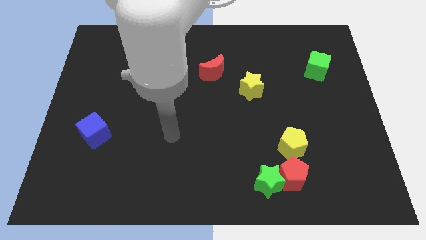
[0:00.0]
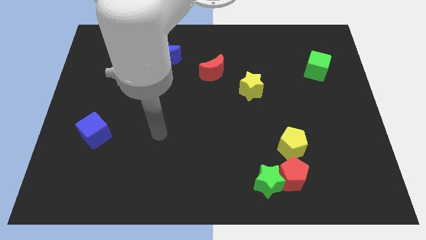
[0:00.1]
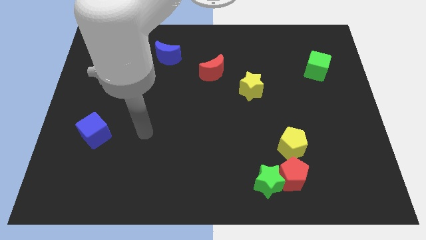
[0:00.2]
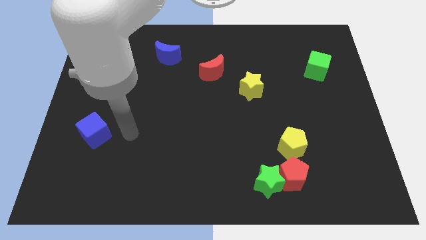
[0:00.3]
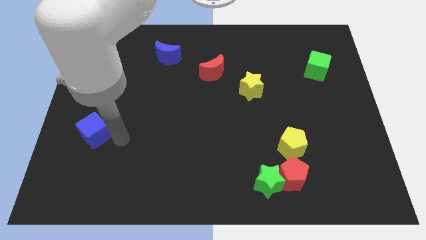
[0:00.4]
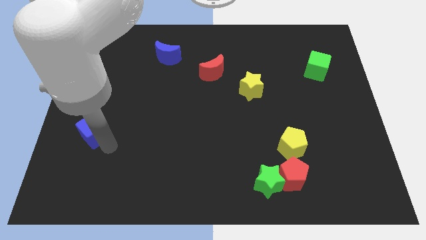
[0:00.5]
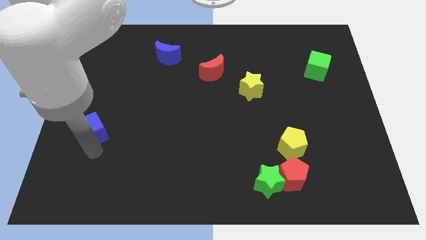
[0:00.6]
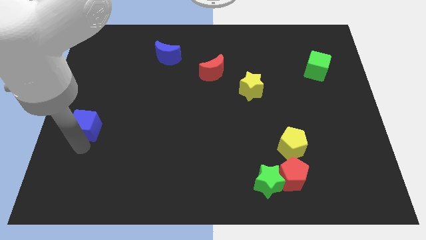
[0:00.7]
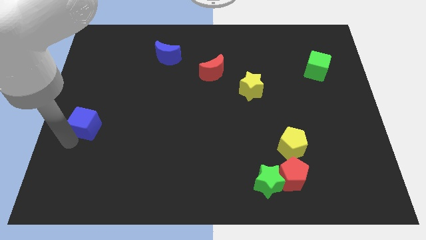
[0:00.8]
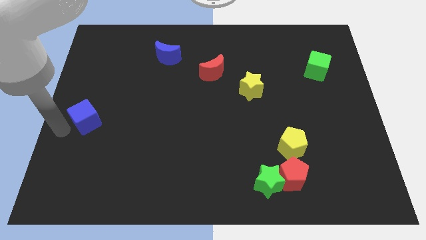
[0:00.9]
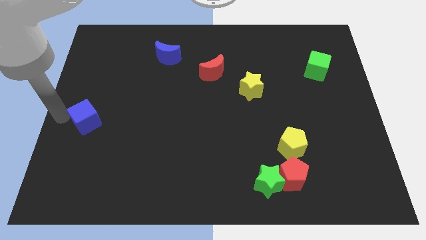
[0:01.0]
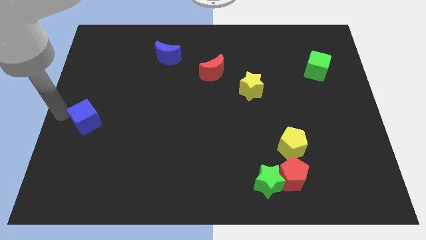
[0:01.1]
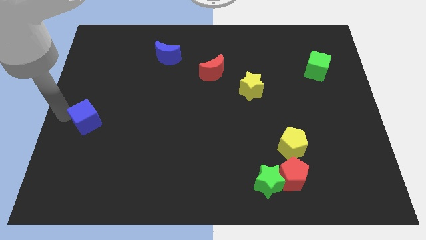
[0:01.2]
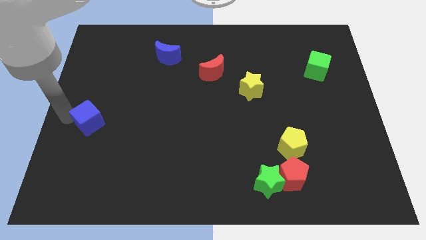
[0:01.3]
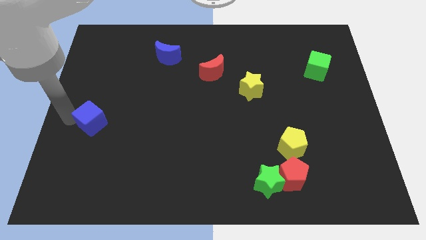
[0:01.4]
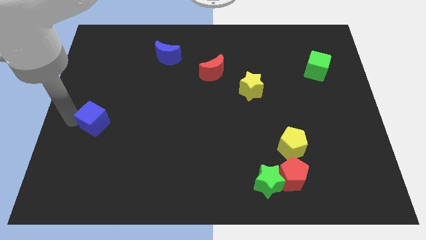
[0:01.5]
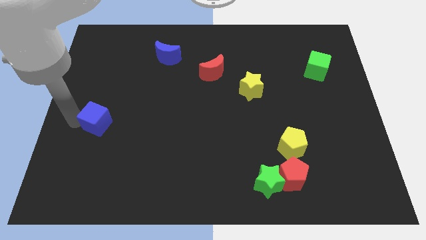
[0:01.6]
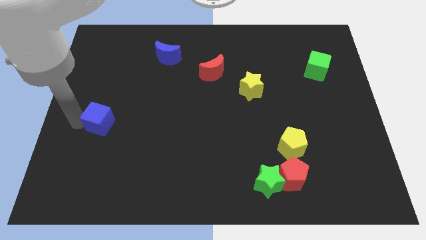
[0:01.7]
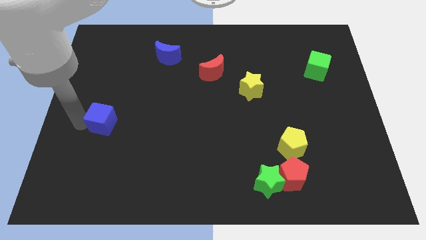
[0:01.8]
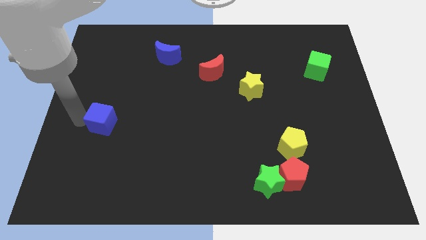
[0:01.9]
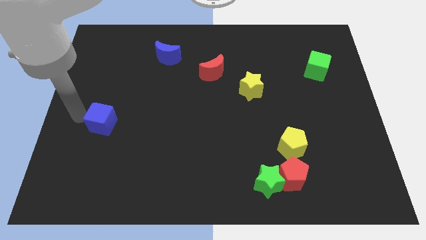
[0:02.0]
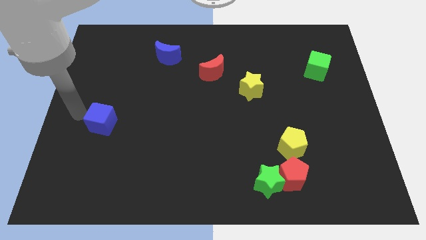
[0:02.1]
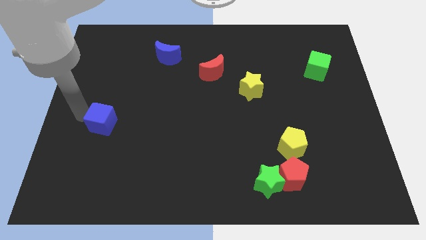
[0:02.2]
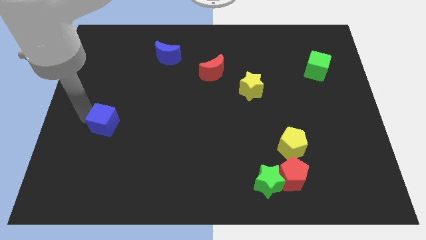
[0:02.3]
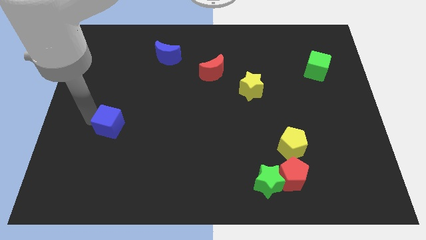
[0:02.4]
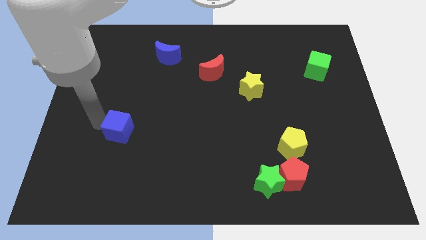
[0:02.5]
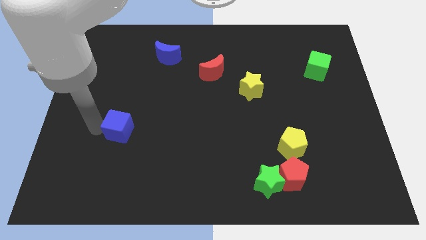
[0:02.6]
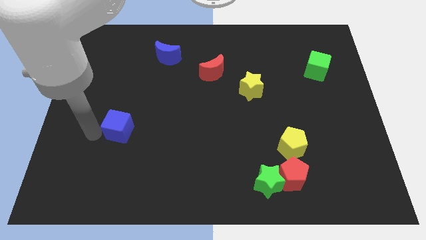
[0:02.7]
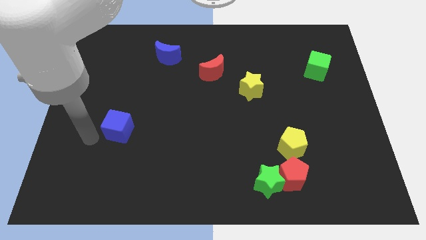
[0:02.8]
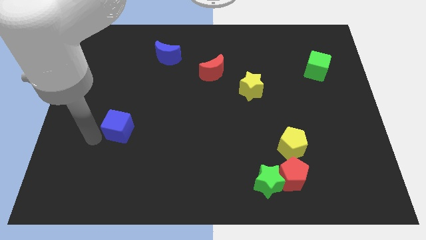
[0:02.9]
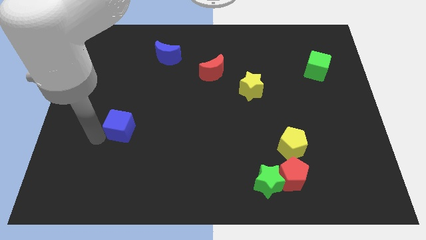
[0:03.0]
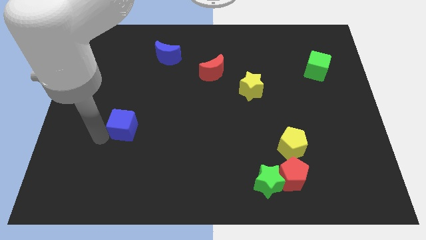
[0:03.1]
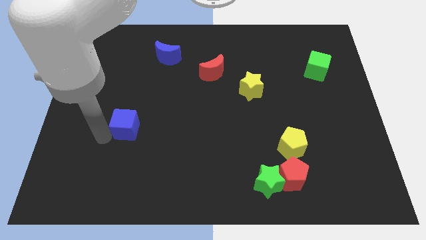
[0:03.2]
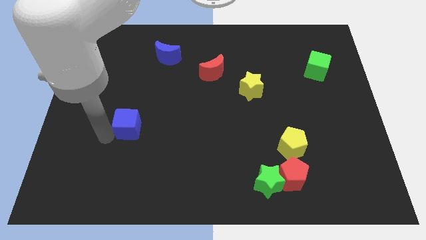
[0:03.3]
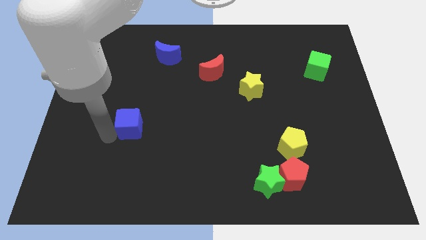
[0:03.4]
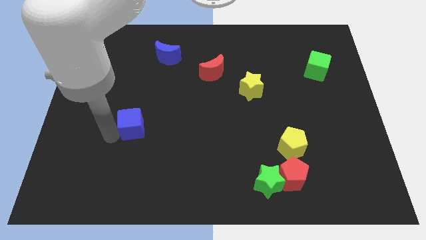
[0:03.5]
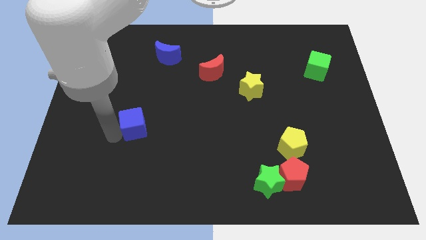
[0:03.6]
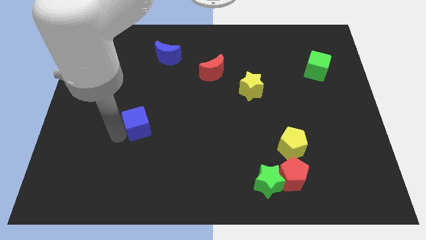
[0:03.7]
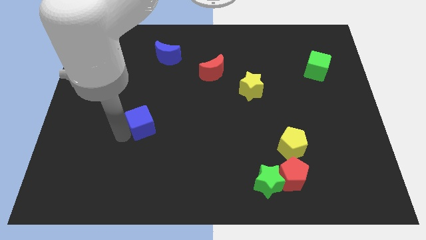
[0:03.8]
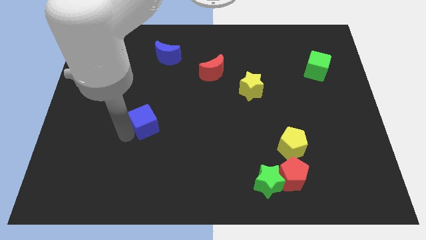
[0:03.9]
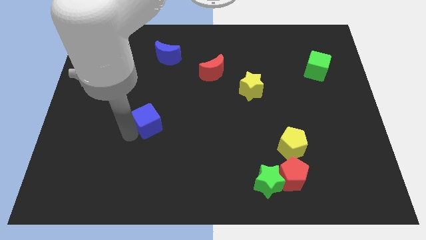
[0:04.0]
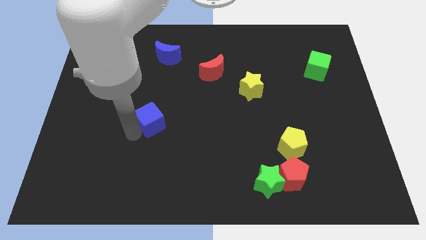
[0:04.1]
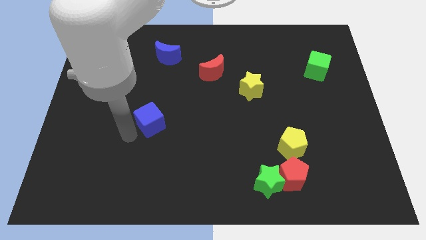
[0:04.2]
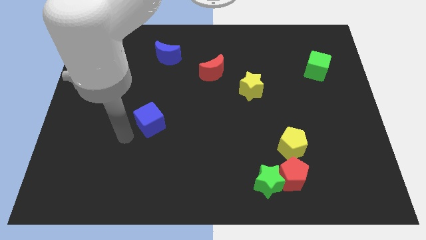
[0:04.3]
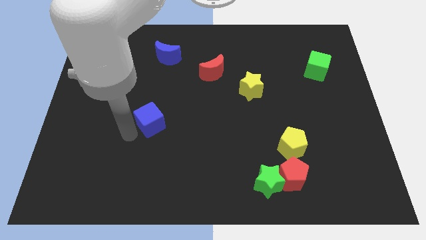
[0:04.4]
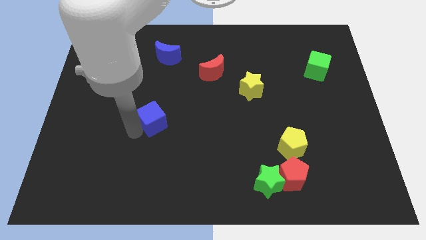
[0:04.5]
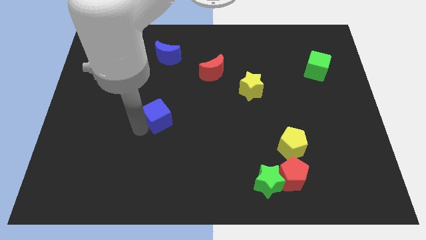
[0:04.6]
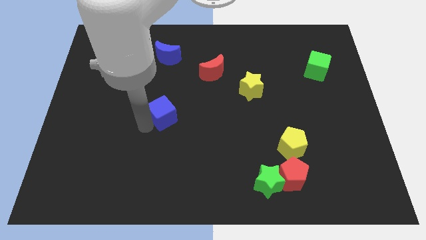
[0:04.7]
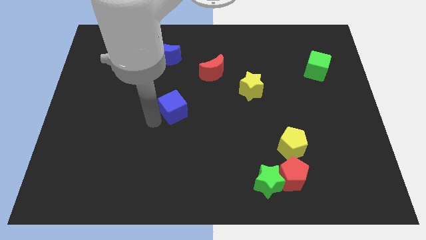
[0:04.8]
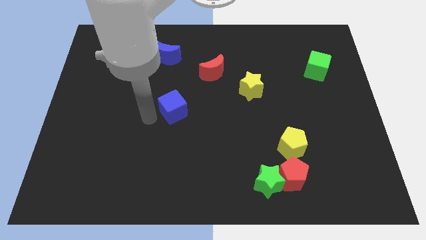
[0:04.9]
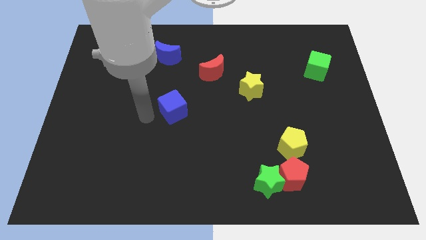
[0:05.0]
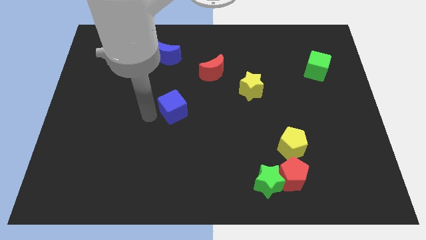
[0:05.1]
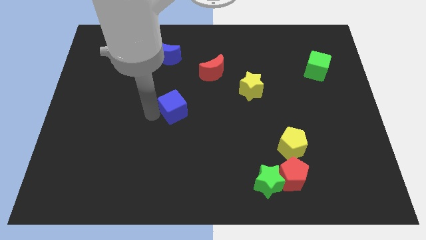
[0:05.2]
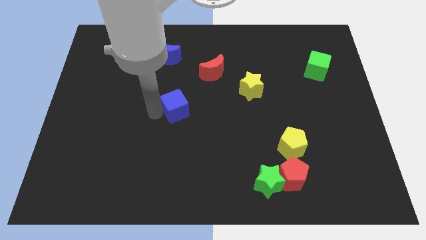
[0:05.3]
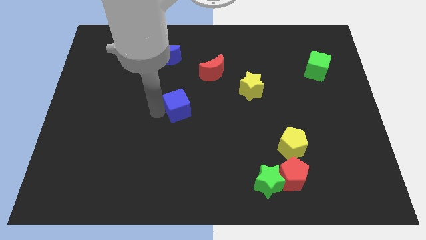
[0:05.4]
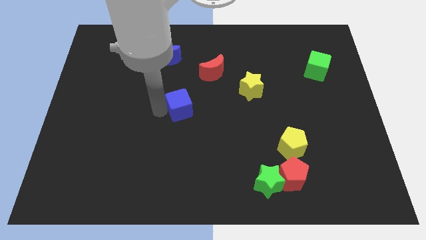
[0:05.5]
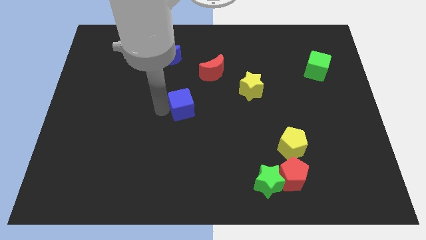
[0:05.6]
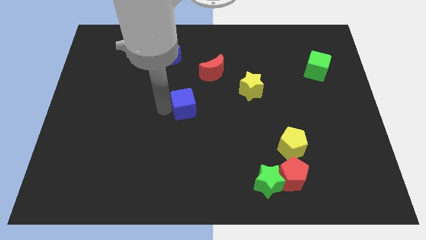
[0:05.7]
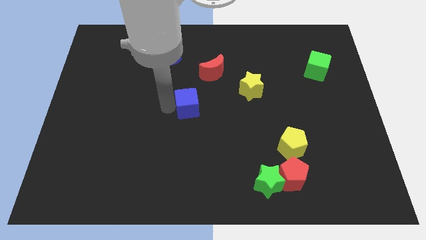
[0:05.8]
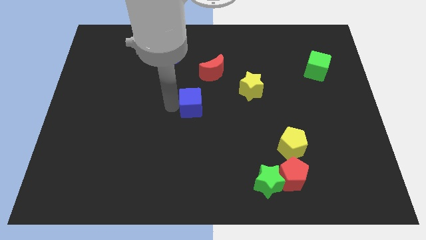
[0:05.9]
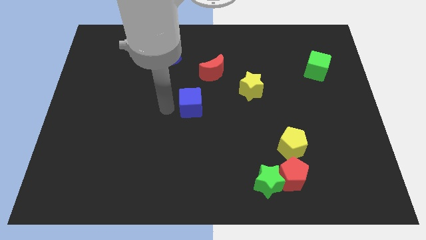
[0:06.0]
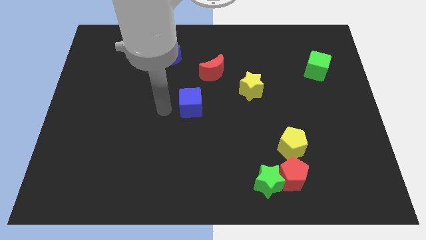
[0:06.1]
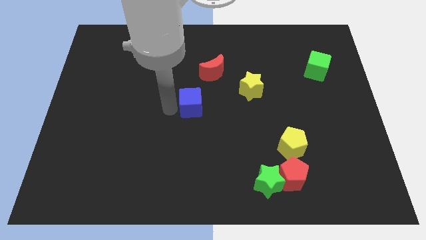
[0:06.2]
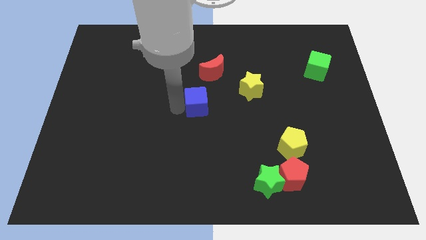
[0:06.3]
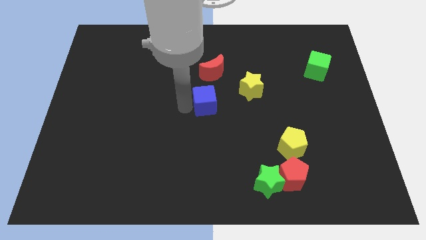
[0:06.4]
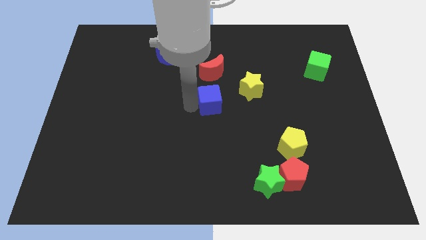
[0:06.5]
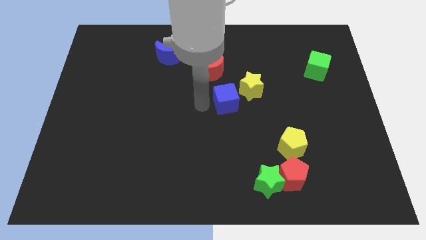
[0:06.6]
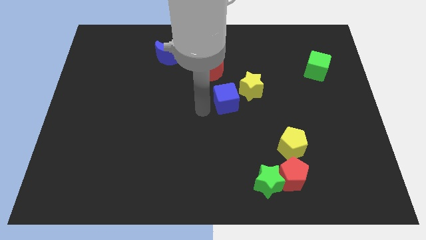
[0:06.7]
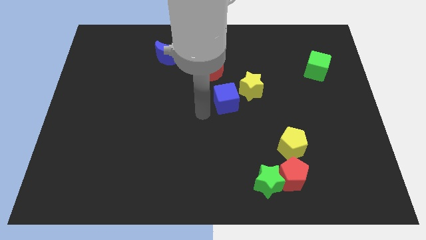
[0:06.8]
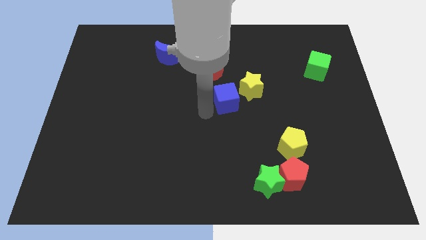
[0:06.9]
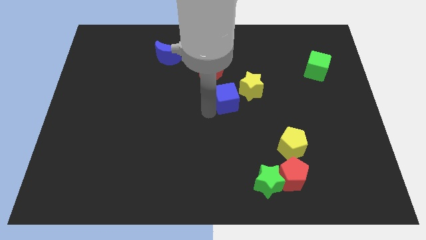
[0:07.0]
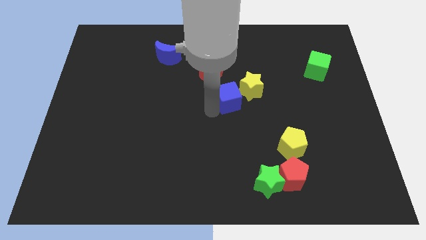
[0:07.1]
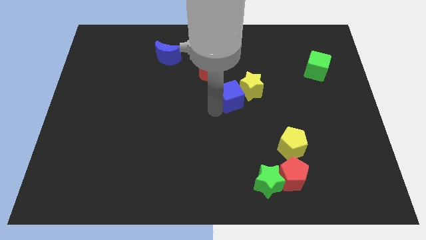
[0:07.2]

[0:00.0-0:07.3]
move the blue cube to the yellow star

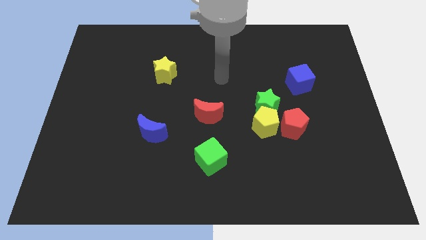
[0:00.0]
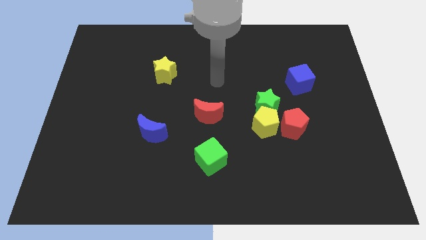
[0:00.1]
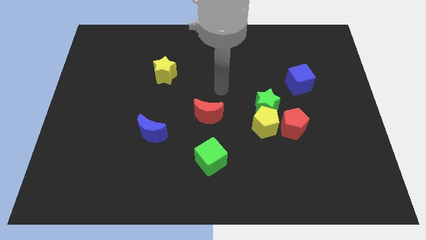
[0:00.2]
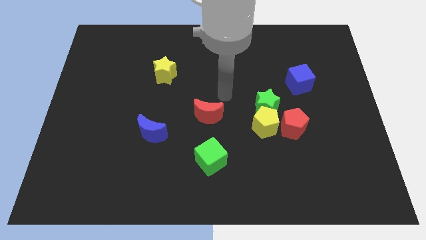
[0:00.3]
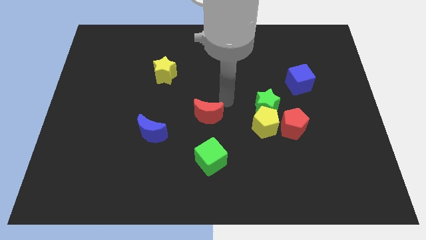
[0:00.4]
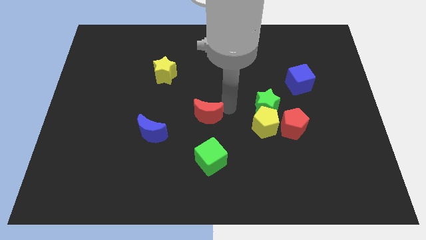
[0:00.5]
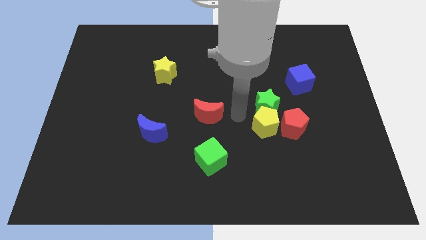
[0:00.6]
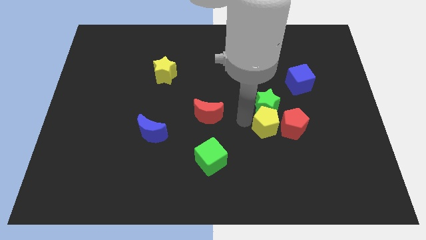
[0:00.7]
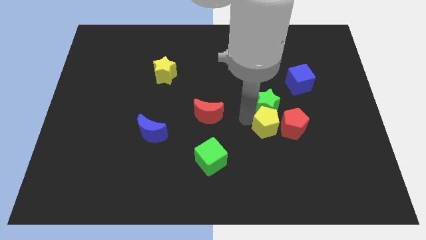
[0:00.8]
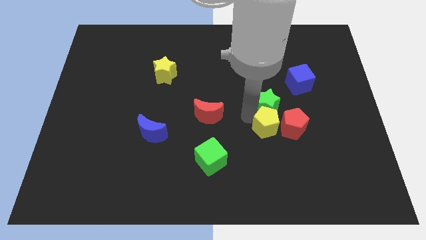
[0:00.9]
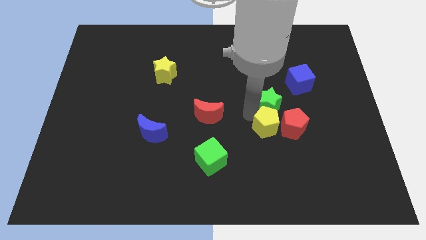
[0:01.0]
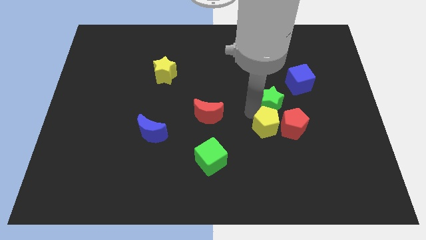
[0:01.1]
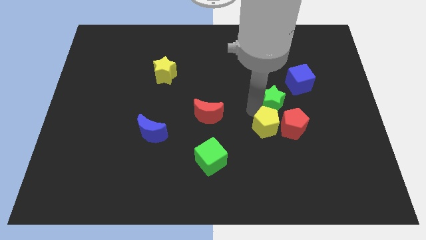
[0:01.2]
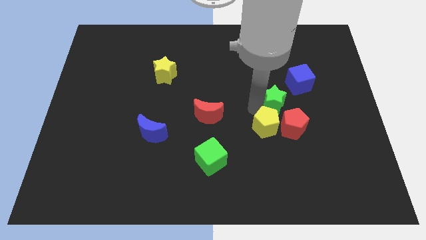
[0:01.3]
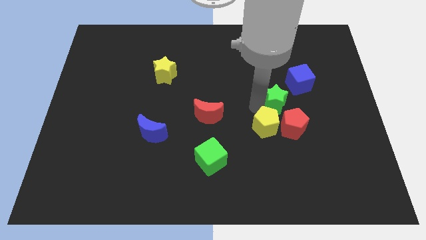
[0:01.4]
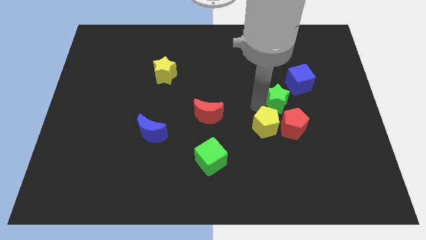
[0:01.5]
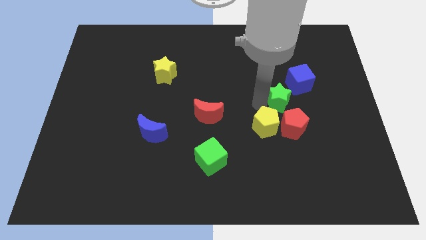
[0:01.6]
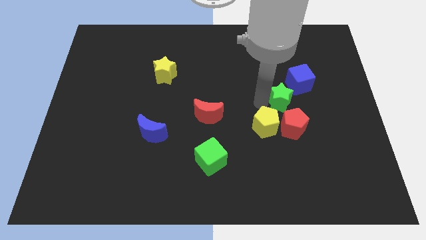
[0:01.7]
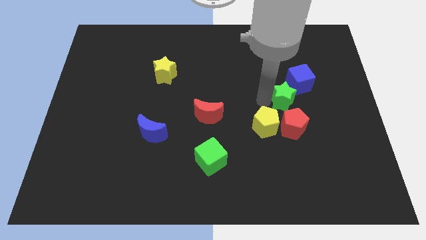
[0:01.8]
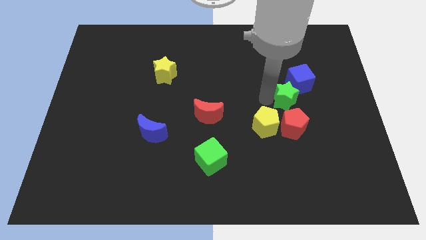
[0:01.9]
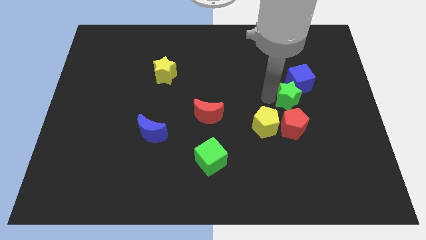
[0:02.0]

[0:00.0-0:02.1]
put the green star next to the blue cube
